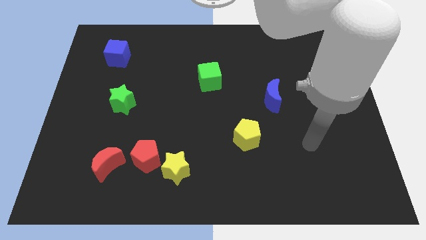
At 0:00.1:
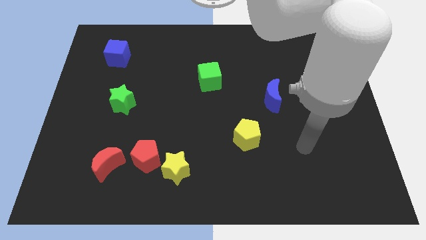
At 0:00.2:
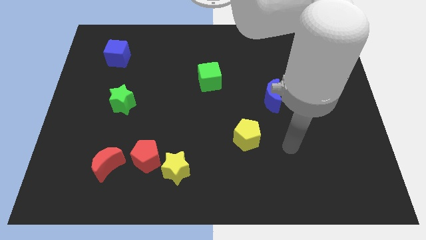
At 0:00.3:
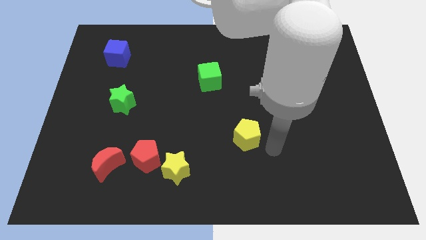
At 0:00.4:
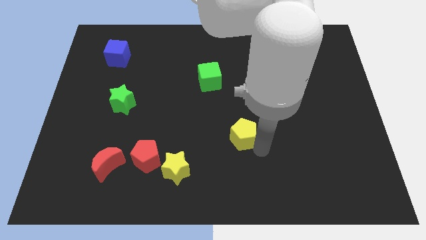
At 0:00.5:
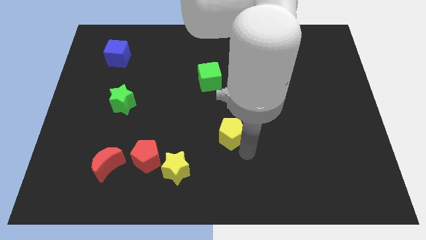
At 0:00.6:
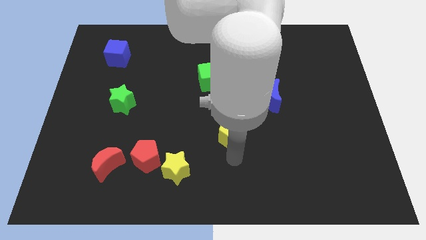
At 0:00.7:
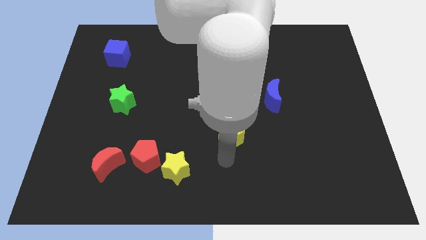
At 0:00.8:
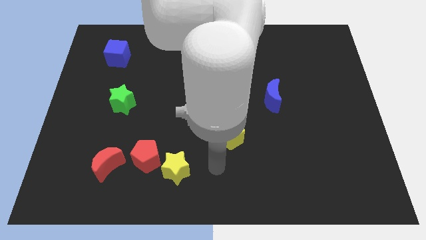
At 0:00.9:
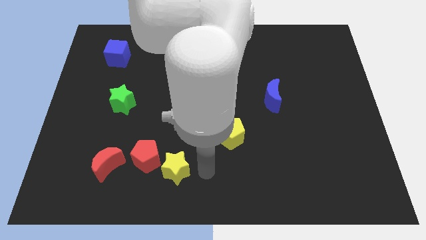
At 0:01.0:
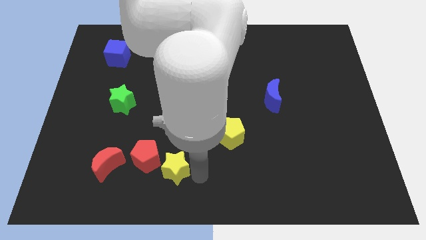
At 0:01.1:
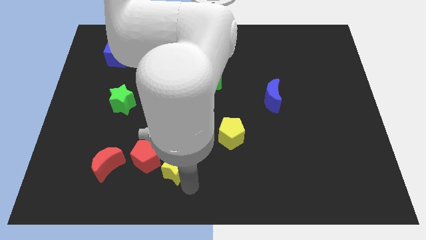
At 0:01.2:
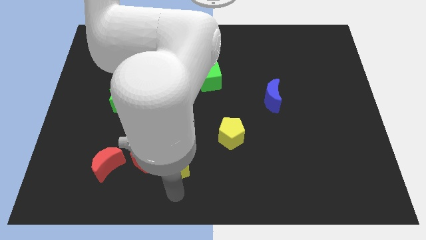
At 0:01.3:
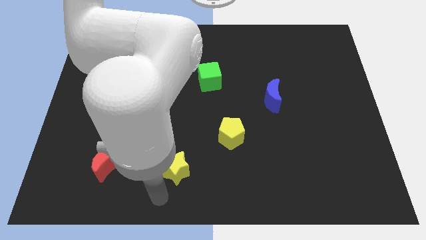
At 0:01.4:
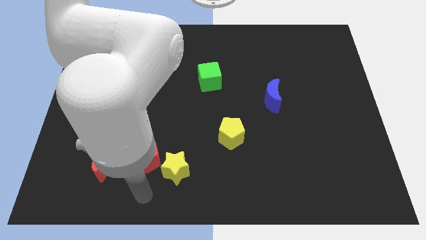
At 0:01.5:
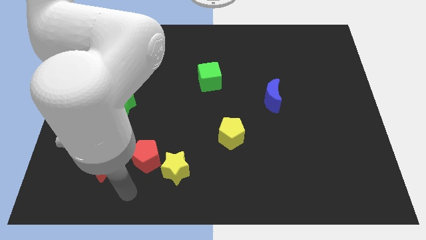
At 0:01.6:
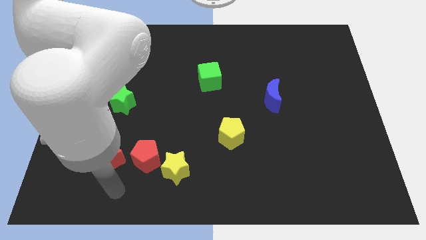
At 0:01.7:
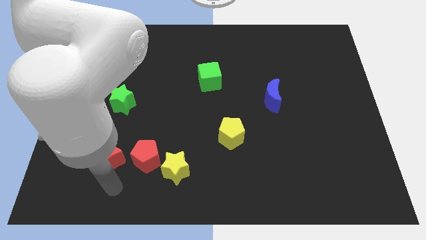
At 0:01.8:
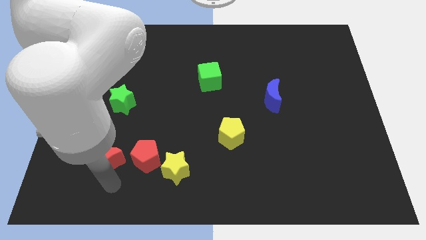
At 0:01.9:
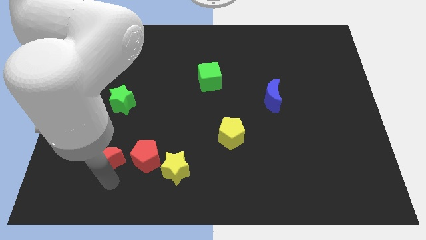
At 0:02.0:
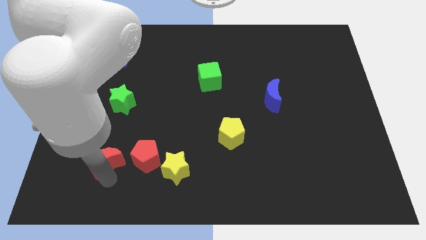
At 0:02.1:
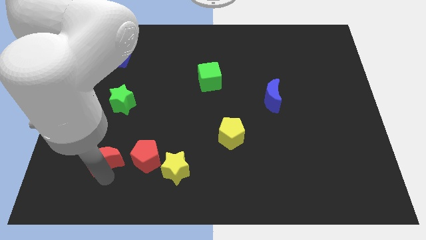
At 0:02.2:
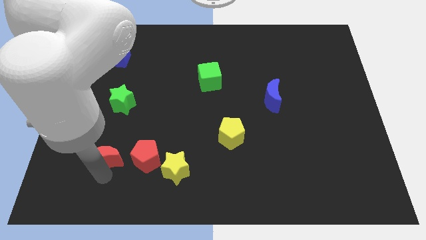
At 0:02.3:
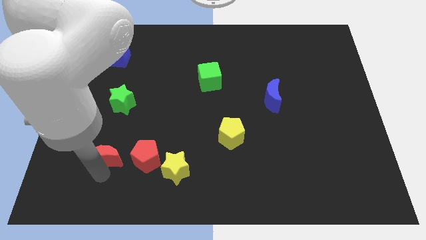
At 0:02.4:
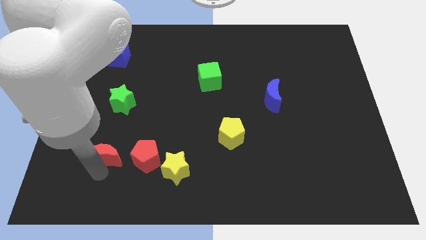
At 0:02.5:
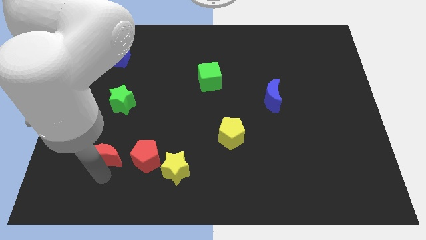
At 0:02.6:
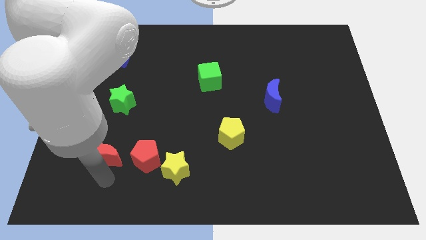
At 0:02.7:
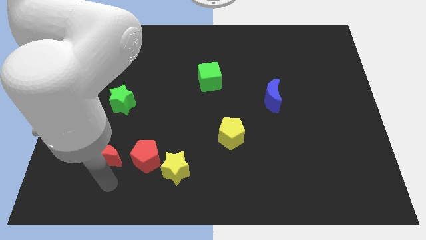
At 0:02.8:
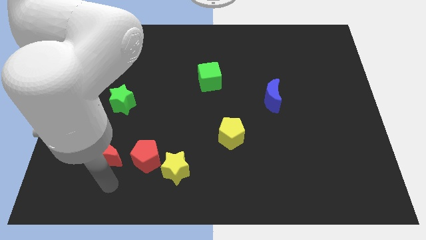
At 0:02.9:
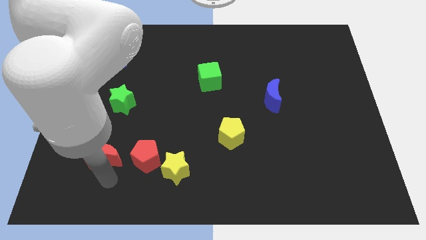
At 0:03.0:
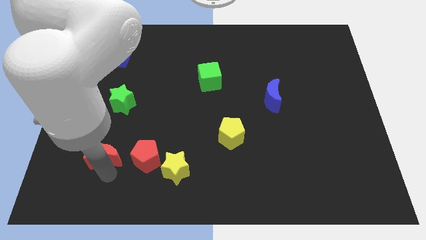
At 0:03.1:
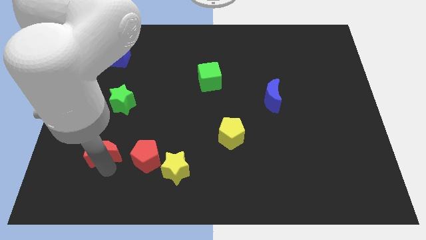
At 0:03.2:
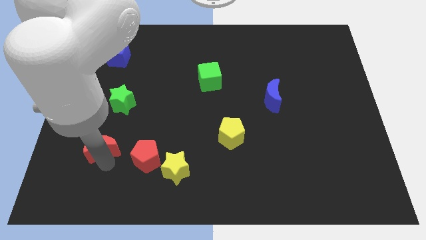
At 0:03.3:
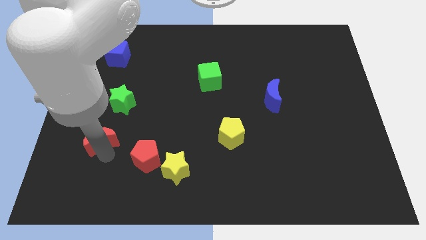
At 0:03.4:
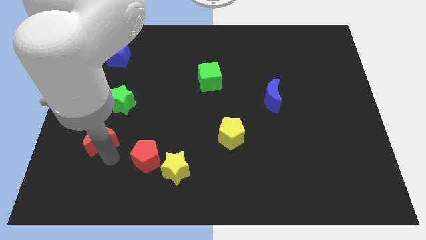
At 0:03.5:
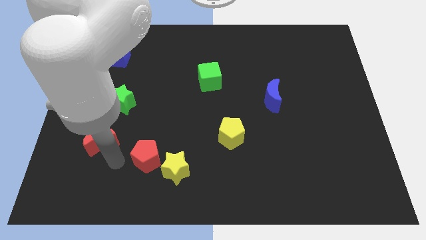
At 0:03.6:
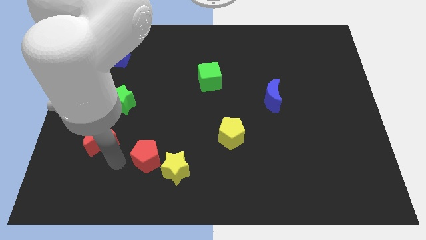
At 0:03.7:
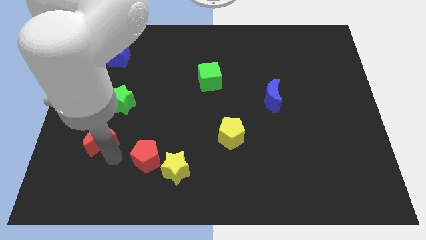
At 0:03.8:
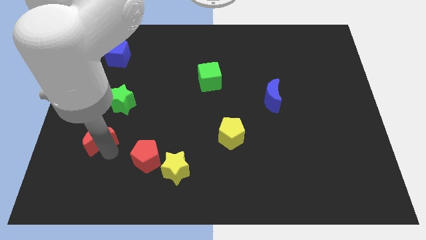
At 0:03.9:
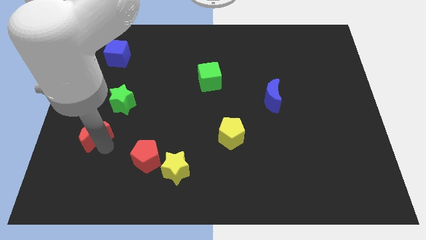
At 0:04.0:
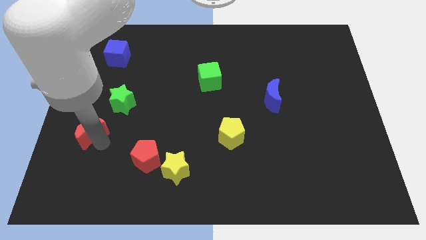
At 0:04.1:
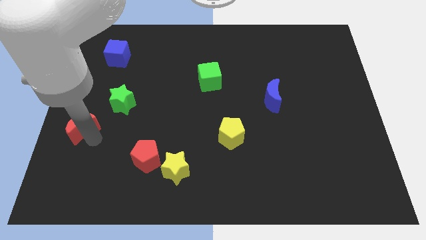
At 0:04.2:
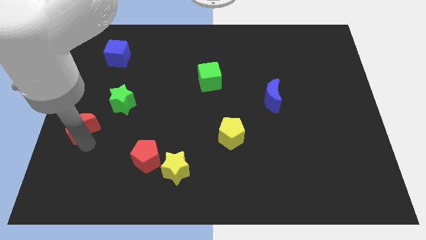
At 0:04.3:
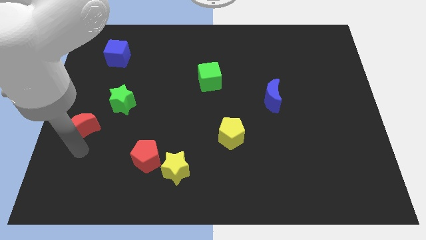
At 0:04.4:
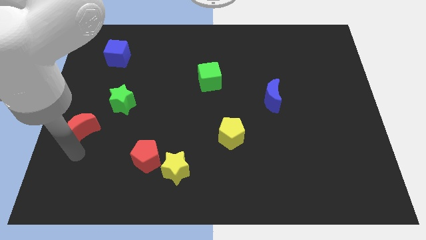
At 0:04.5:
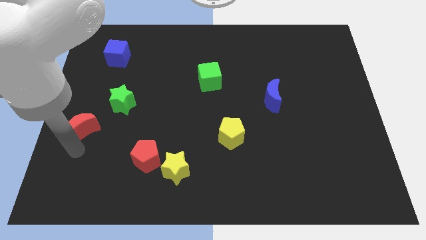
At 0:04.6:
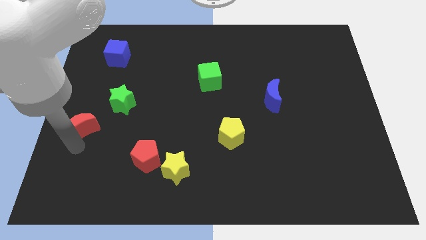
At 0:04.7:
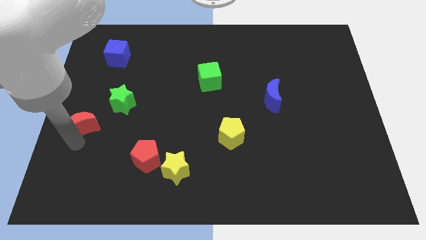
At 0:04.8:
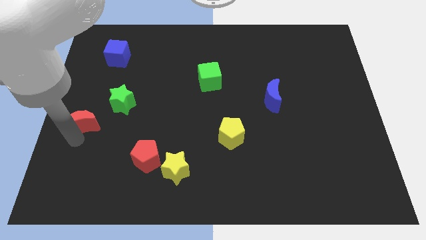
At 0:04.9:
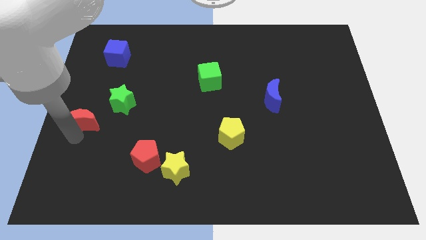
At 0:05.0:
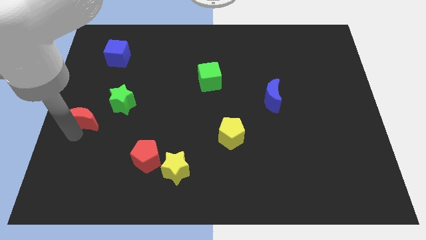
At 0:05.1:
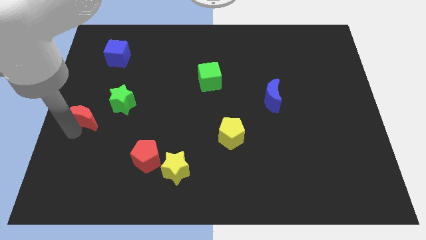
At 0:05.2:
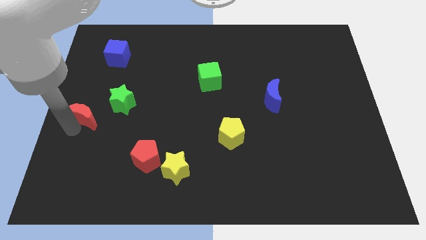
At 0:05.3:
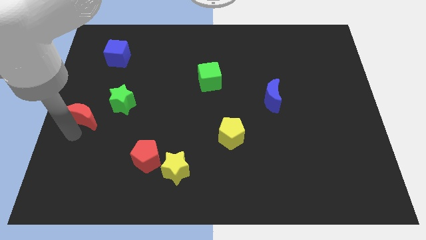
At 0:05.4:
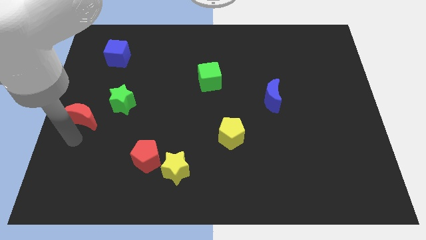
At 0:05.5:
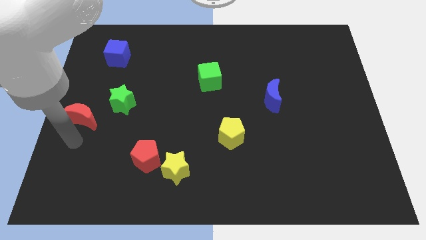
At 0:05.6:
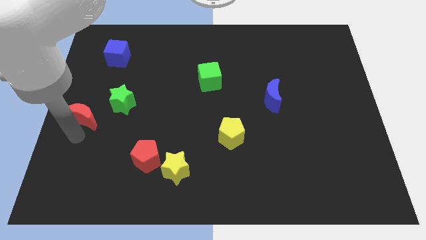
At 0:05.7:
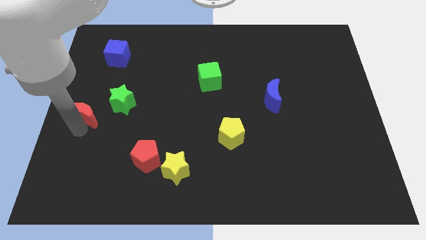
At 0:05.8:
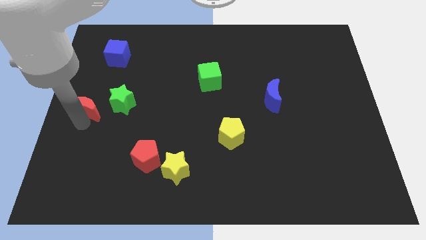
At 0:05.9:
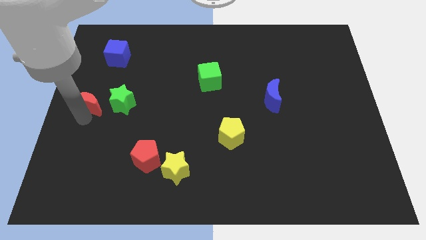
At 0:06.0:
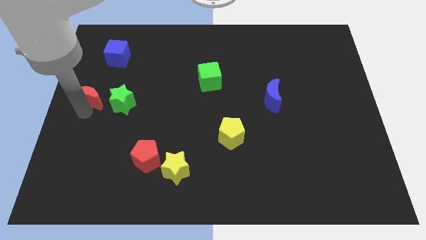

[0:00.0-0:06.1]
slide the red moon diagonally up and to the left of the green star

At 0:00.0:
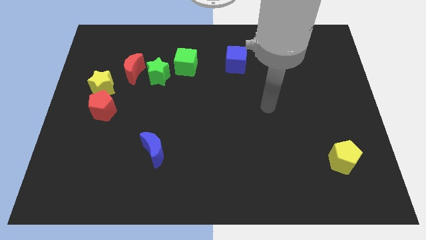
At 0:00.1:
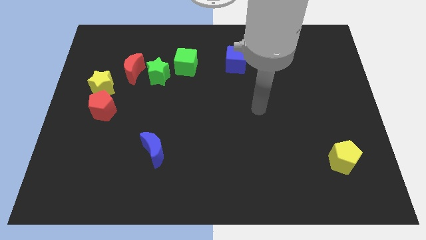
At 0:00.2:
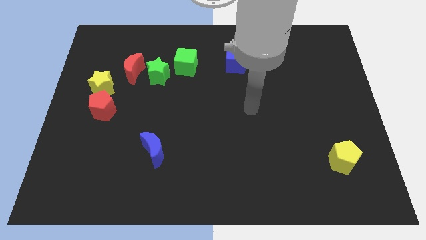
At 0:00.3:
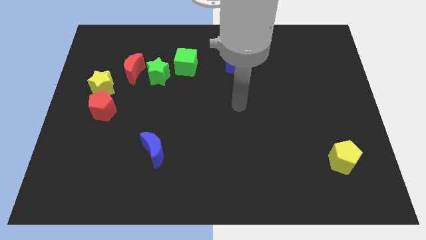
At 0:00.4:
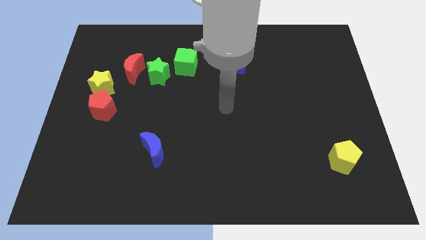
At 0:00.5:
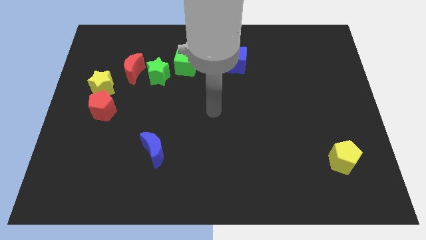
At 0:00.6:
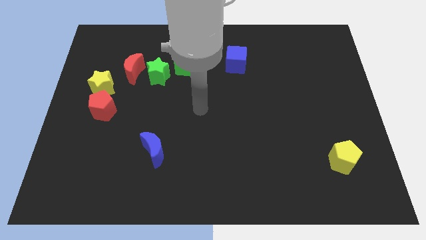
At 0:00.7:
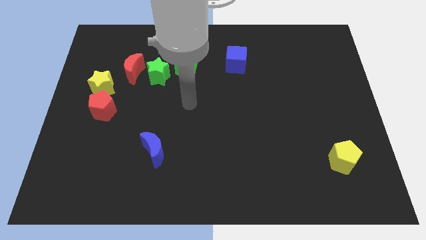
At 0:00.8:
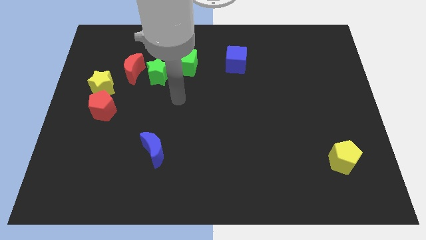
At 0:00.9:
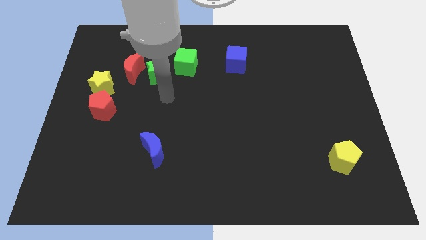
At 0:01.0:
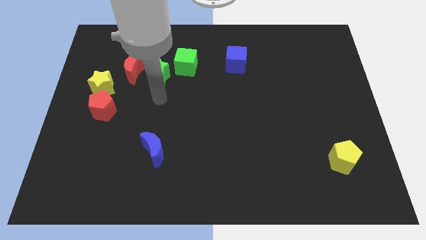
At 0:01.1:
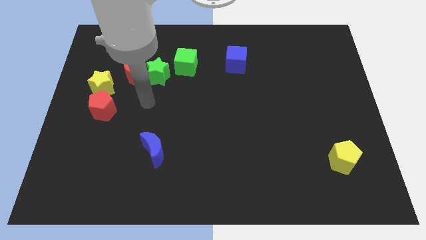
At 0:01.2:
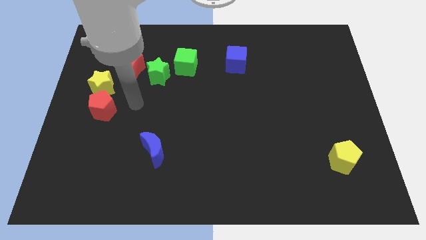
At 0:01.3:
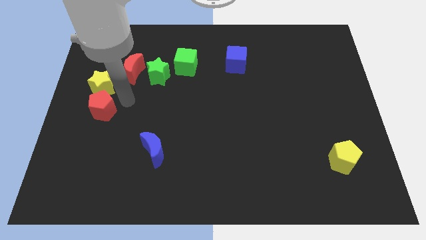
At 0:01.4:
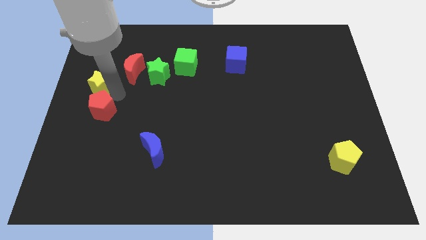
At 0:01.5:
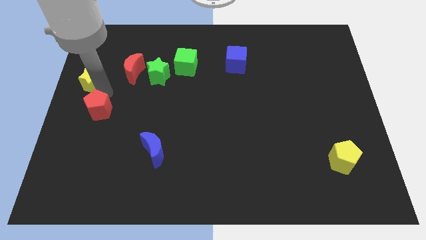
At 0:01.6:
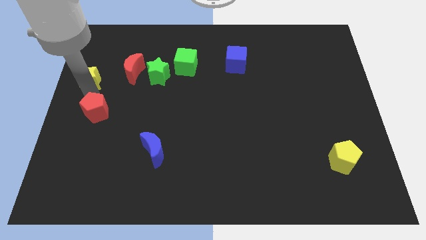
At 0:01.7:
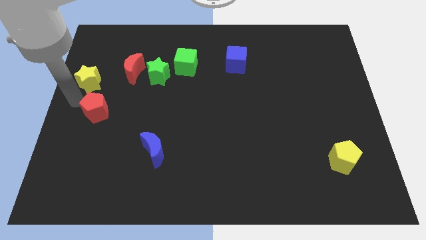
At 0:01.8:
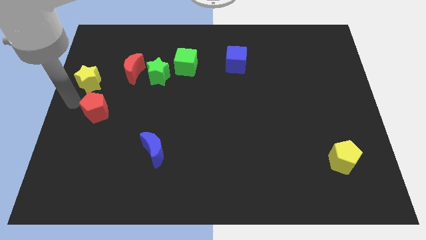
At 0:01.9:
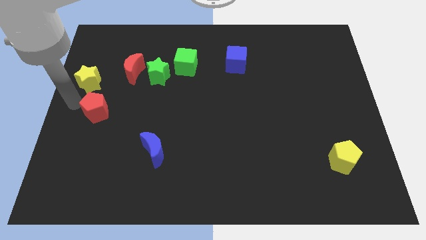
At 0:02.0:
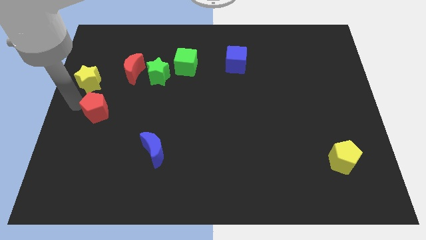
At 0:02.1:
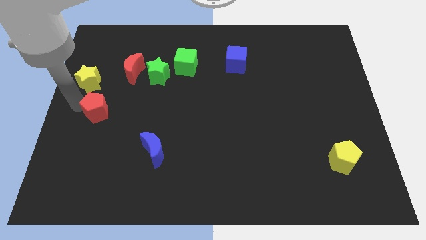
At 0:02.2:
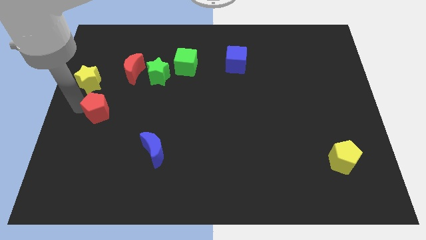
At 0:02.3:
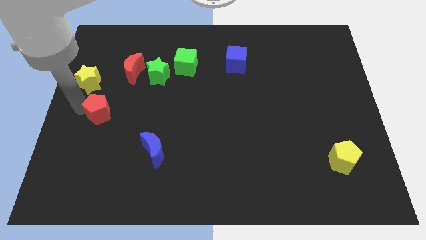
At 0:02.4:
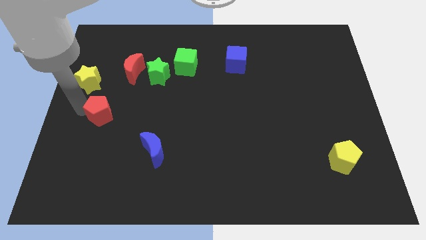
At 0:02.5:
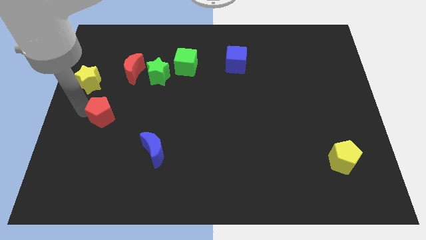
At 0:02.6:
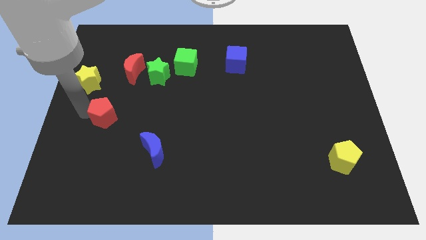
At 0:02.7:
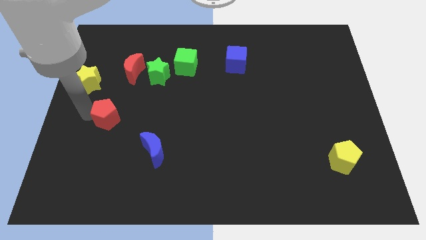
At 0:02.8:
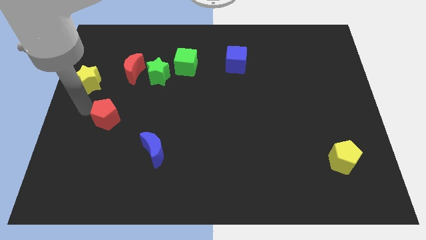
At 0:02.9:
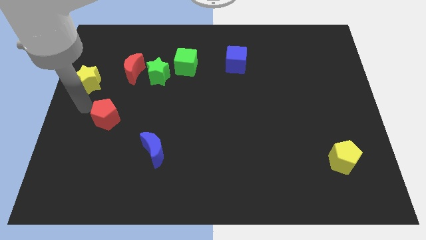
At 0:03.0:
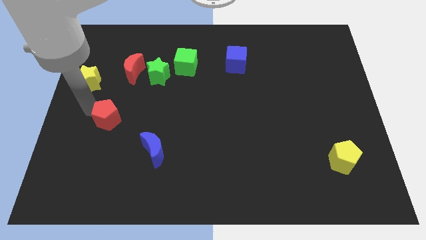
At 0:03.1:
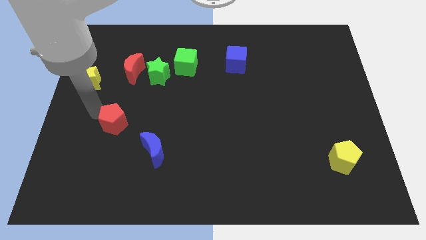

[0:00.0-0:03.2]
push the red pentagon diagonally up and to the left of the blue moon
